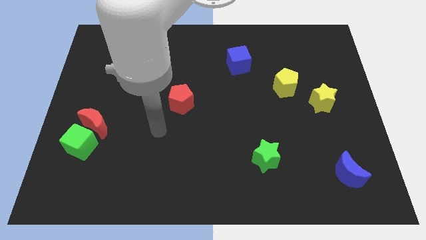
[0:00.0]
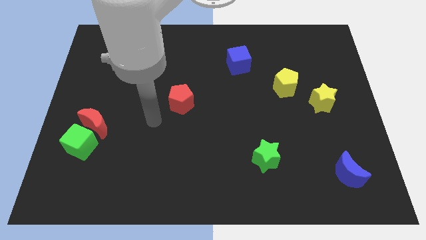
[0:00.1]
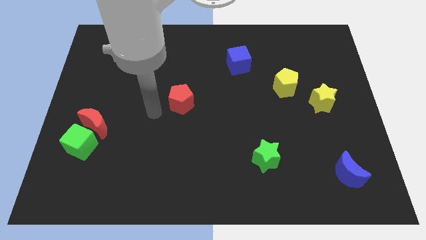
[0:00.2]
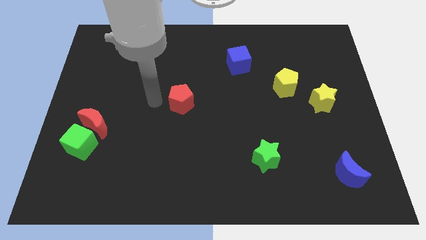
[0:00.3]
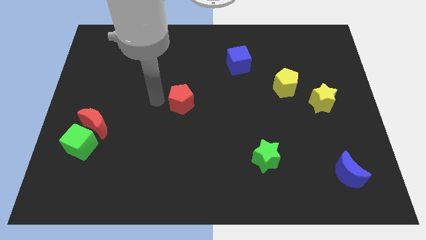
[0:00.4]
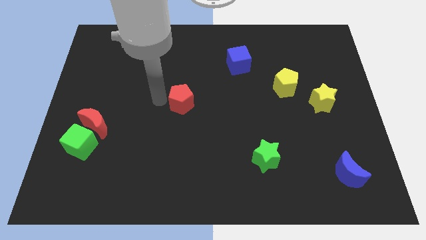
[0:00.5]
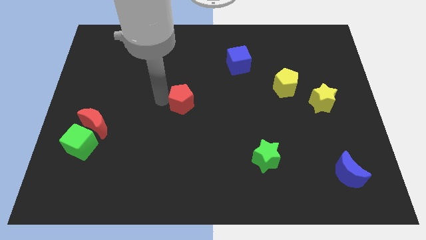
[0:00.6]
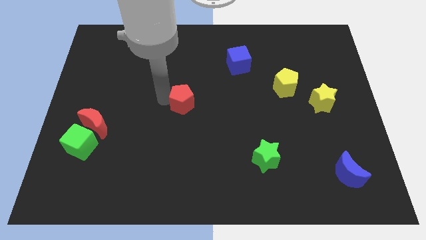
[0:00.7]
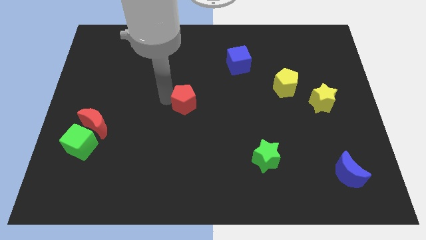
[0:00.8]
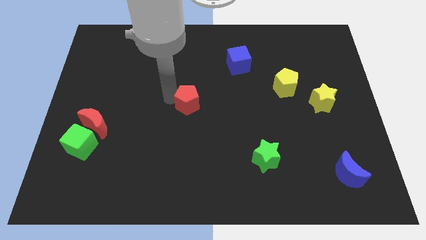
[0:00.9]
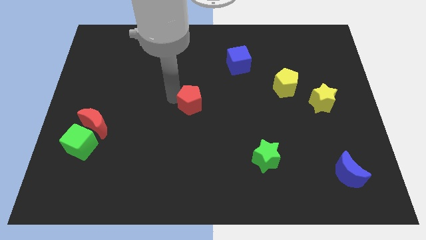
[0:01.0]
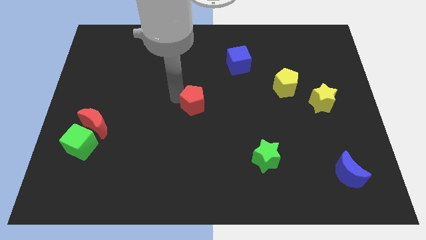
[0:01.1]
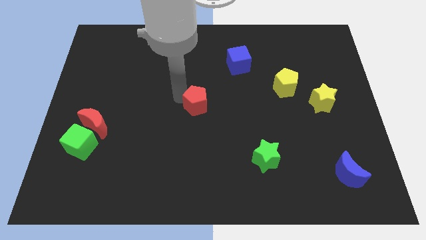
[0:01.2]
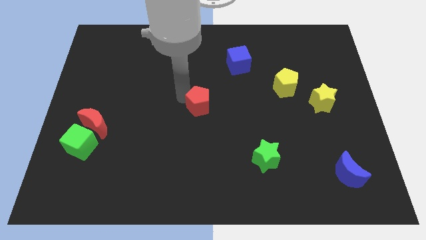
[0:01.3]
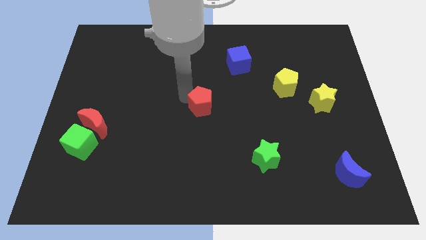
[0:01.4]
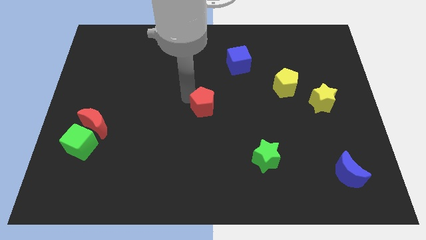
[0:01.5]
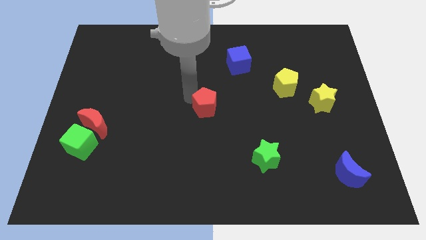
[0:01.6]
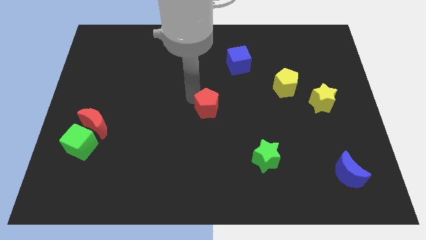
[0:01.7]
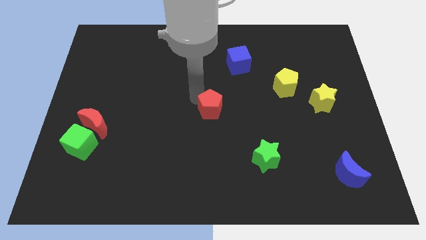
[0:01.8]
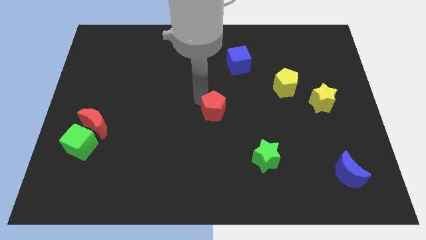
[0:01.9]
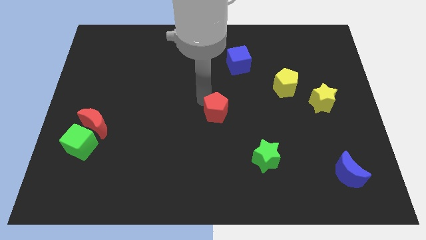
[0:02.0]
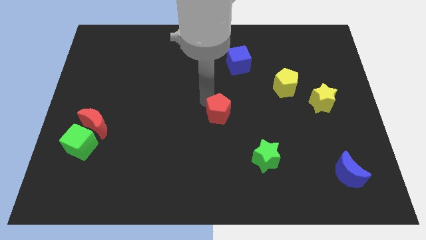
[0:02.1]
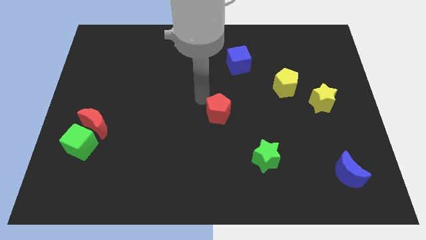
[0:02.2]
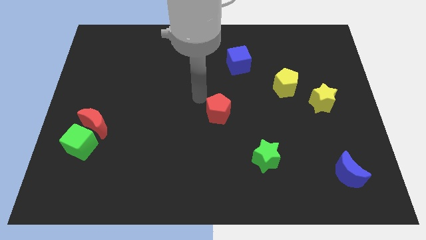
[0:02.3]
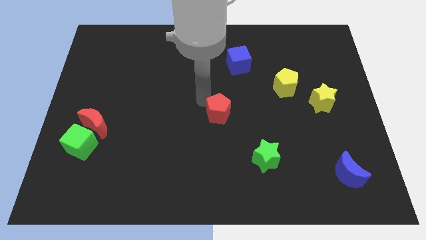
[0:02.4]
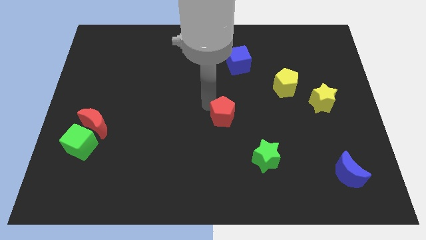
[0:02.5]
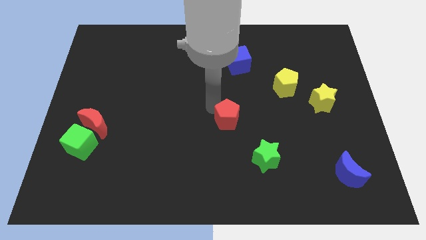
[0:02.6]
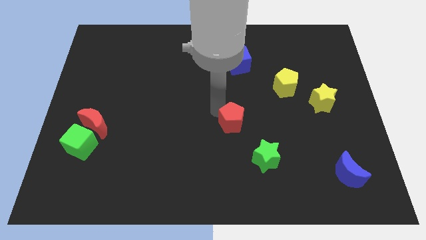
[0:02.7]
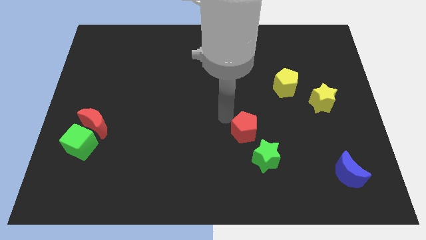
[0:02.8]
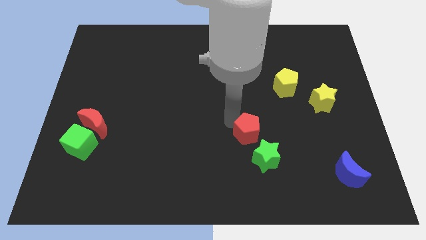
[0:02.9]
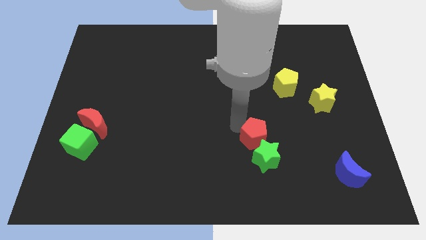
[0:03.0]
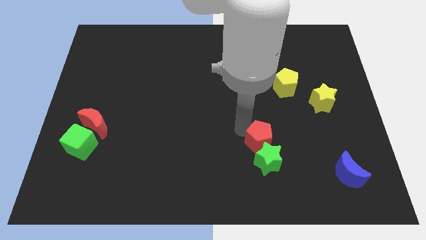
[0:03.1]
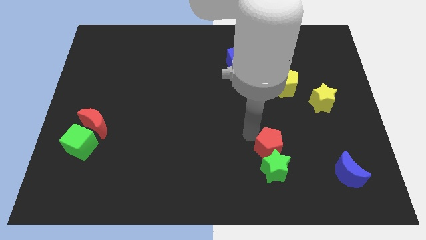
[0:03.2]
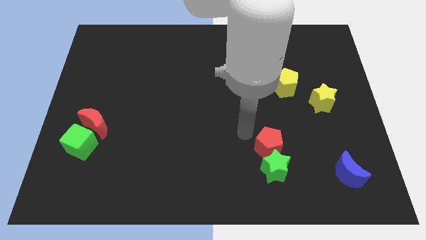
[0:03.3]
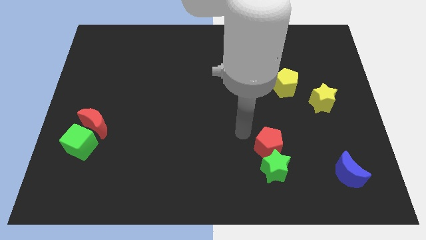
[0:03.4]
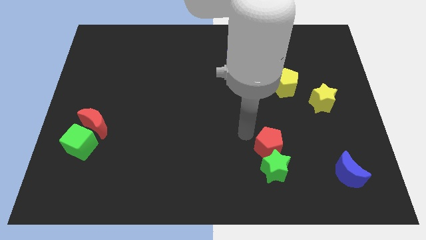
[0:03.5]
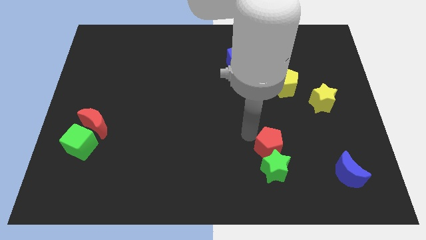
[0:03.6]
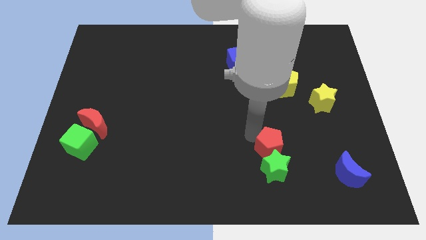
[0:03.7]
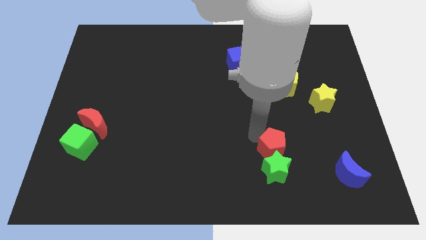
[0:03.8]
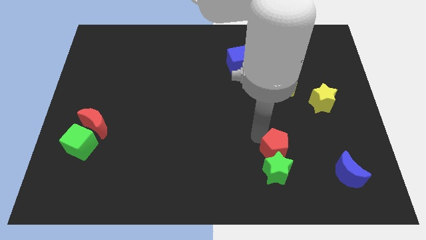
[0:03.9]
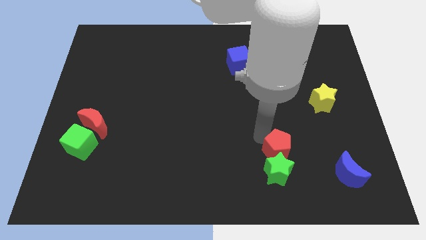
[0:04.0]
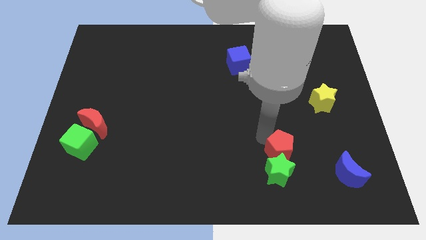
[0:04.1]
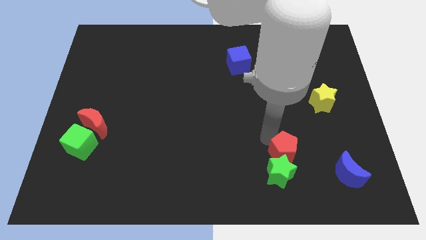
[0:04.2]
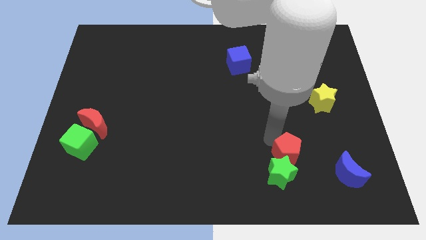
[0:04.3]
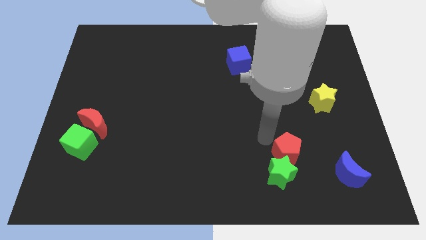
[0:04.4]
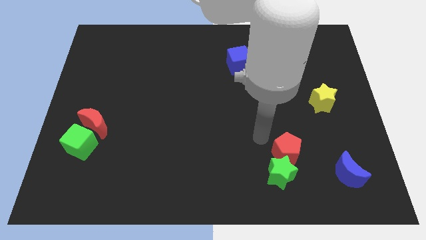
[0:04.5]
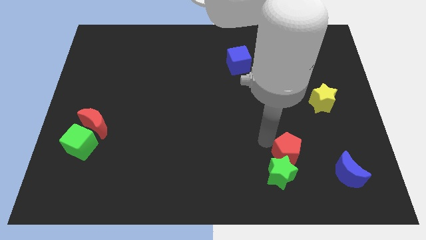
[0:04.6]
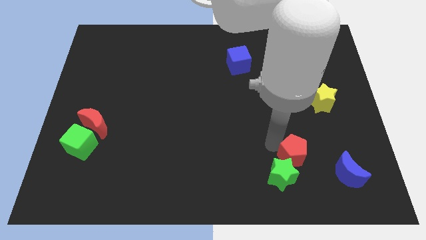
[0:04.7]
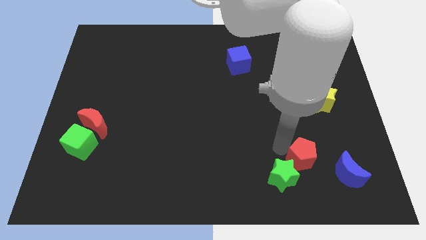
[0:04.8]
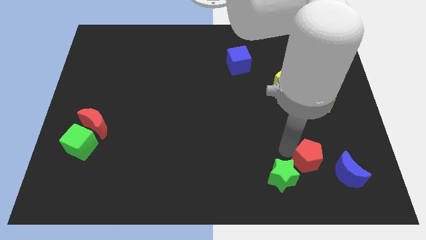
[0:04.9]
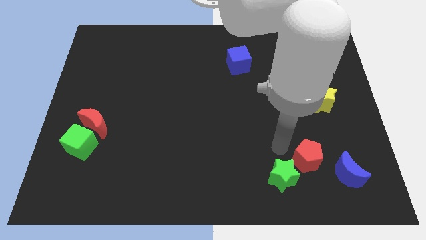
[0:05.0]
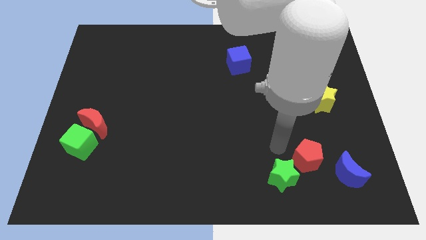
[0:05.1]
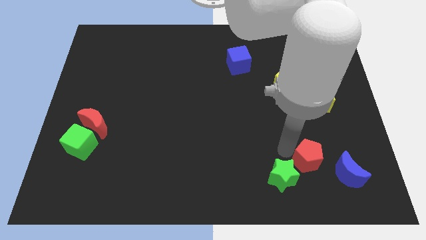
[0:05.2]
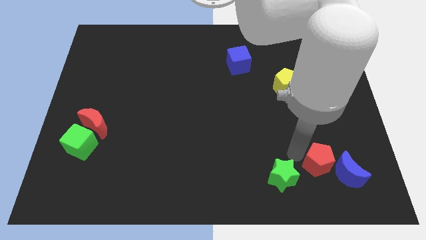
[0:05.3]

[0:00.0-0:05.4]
slide the red pentagon towards the blue moon

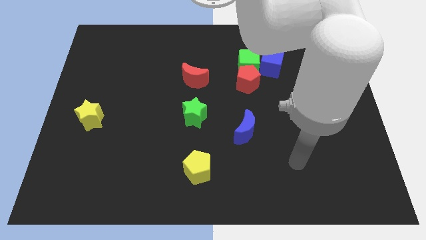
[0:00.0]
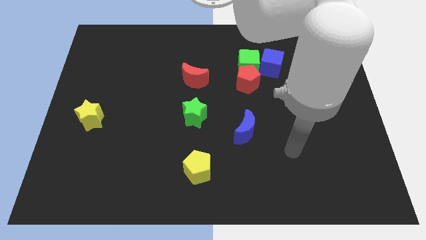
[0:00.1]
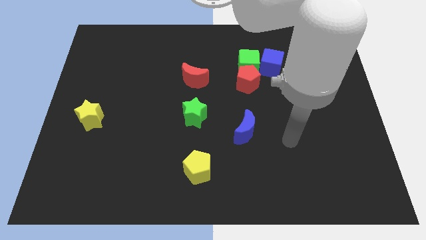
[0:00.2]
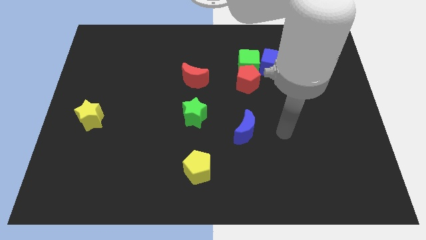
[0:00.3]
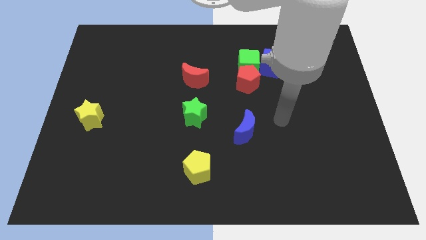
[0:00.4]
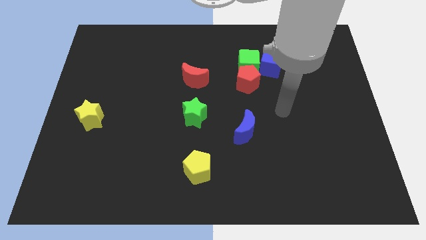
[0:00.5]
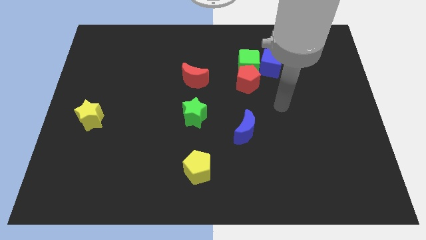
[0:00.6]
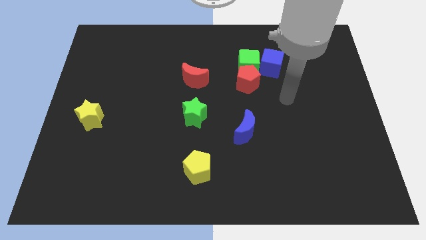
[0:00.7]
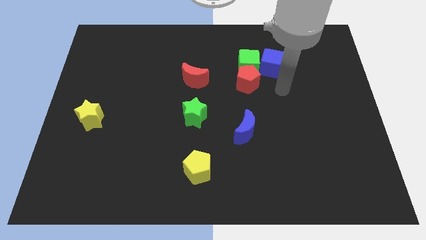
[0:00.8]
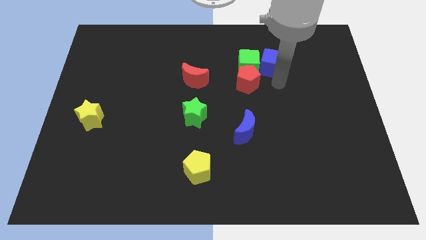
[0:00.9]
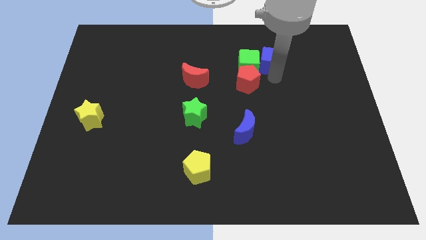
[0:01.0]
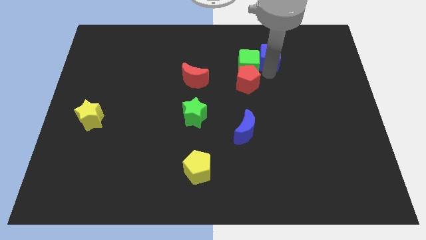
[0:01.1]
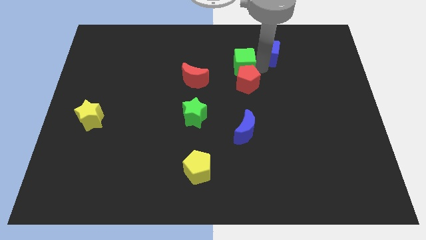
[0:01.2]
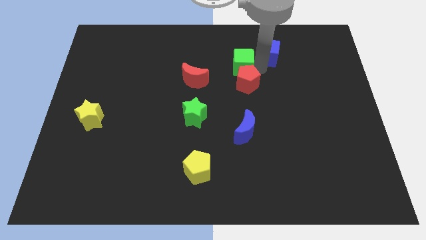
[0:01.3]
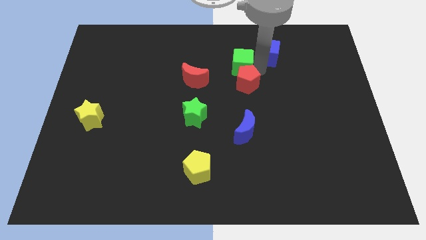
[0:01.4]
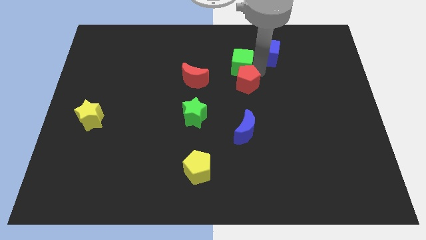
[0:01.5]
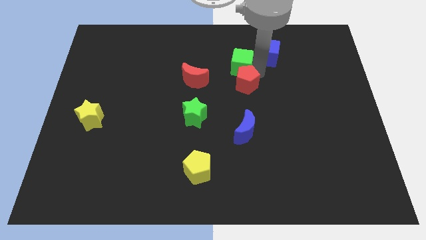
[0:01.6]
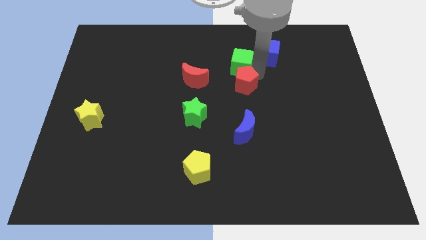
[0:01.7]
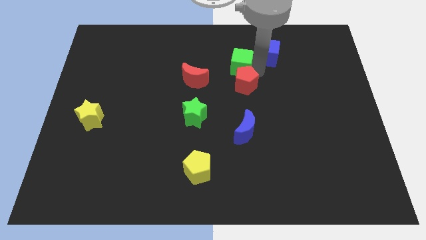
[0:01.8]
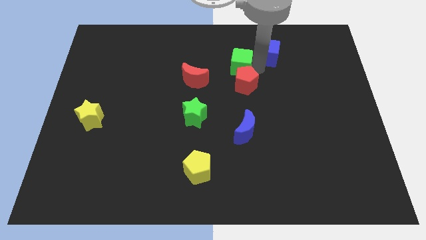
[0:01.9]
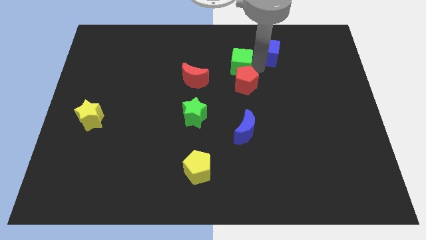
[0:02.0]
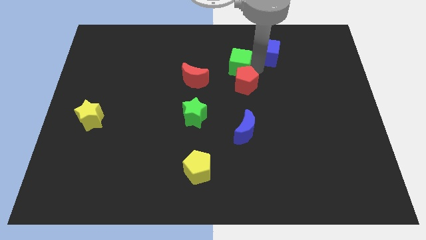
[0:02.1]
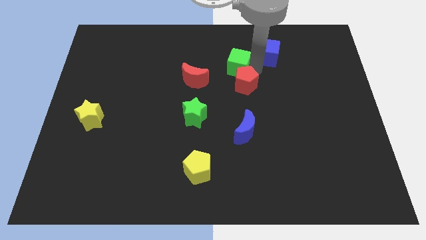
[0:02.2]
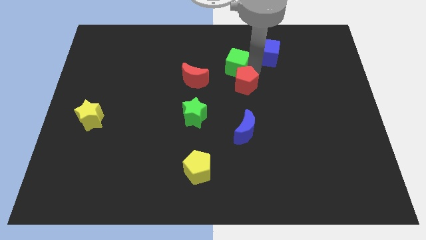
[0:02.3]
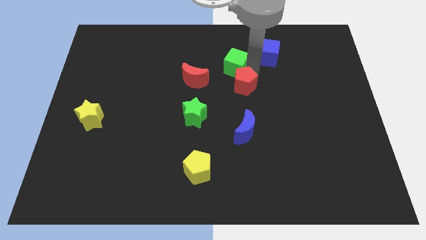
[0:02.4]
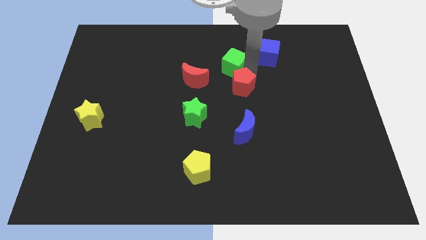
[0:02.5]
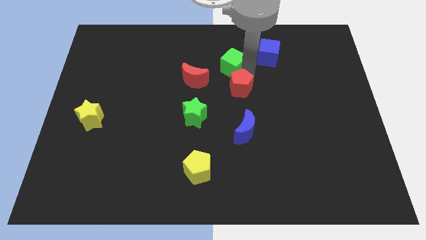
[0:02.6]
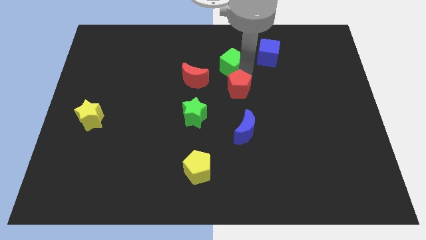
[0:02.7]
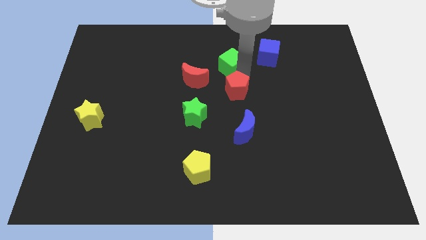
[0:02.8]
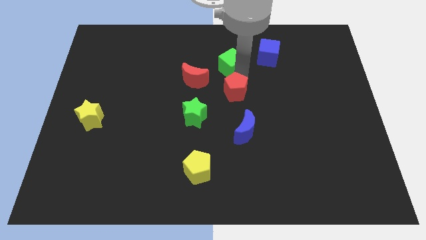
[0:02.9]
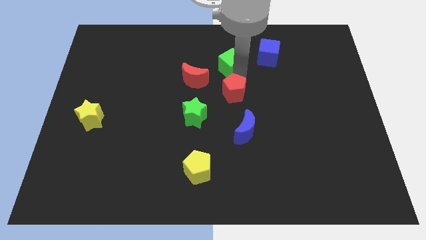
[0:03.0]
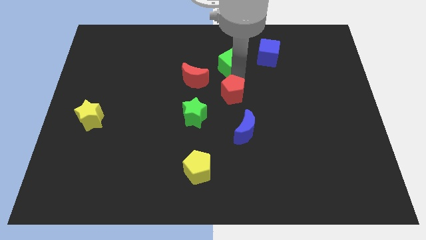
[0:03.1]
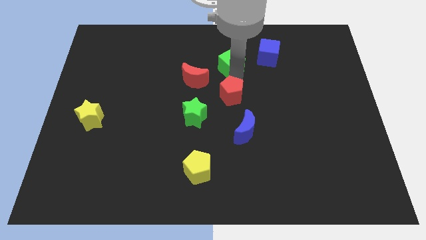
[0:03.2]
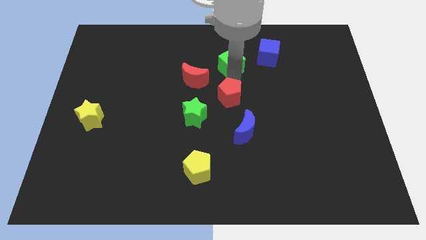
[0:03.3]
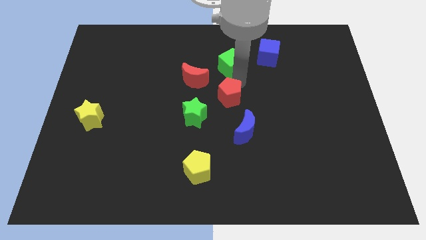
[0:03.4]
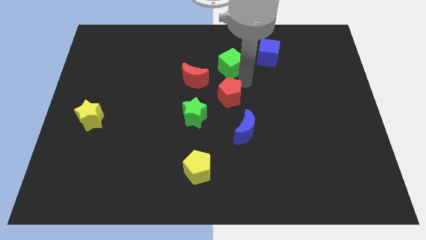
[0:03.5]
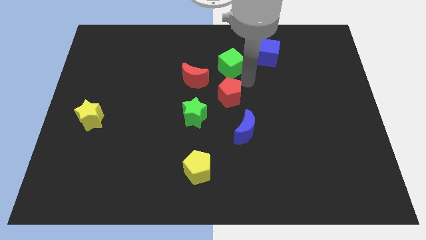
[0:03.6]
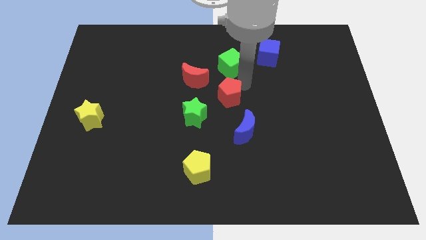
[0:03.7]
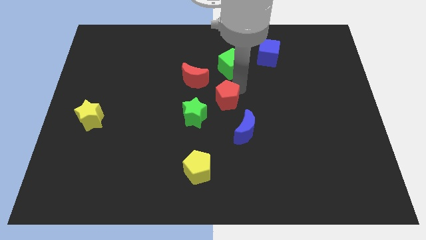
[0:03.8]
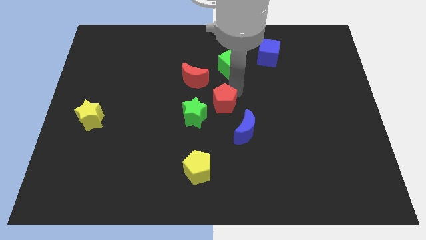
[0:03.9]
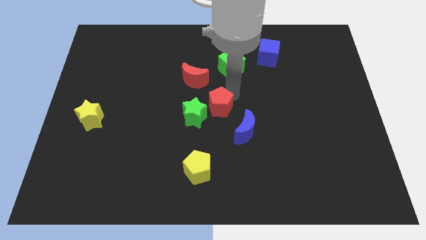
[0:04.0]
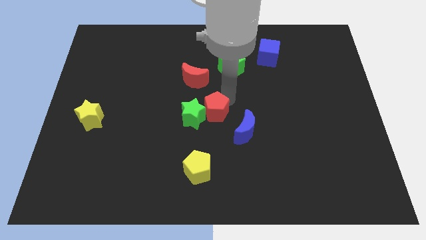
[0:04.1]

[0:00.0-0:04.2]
push the red pentagon next to the green star
